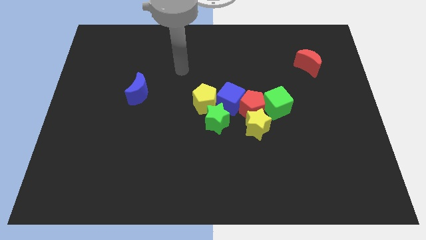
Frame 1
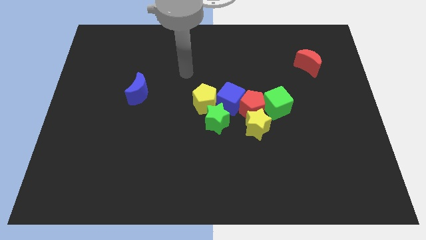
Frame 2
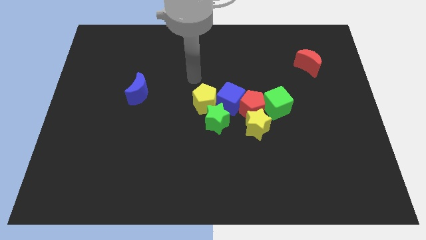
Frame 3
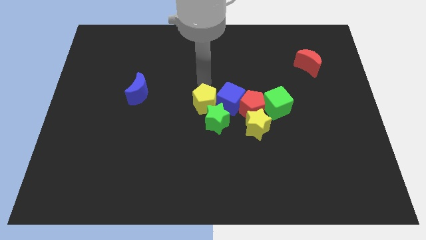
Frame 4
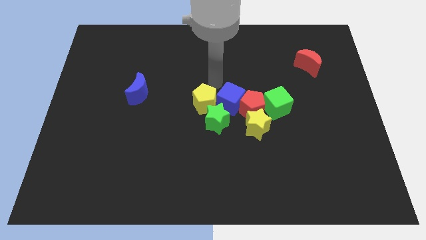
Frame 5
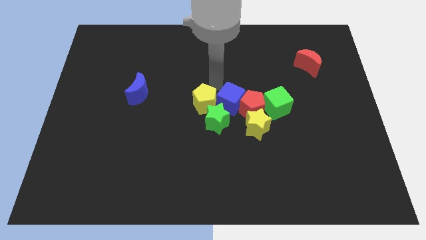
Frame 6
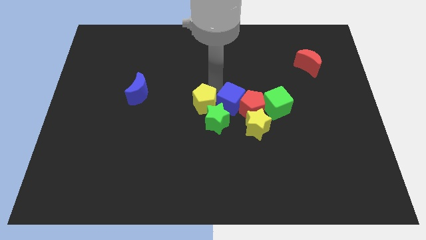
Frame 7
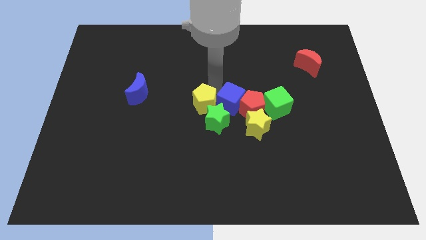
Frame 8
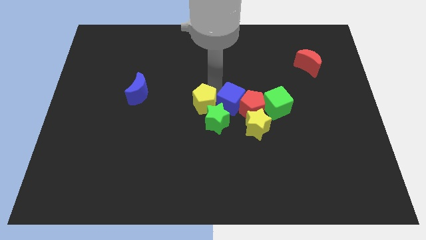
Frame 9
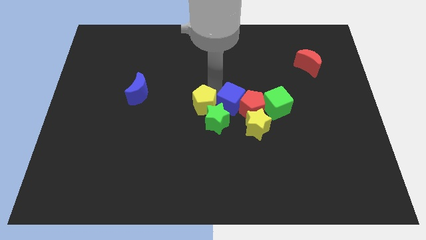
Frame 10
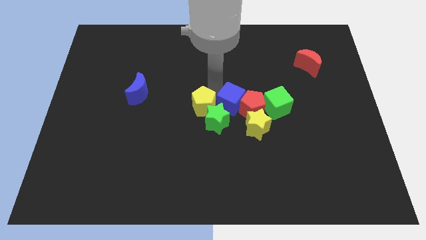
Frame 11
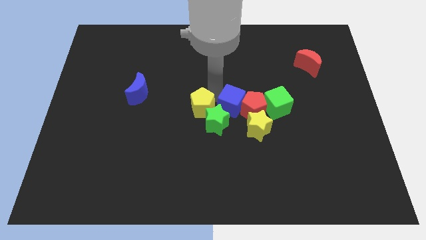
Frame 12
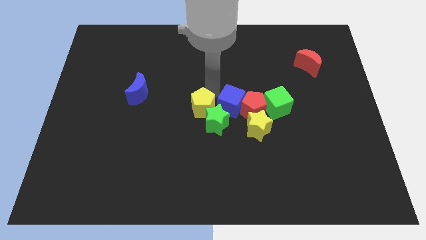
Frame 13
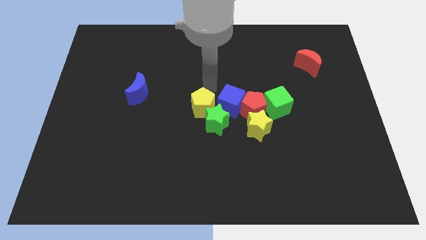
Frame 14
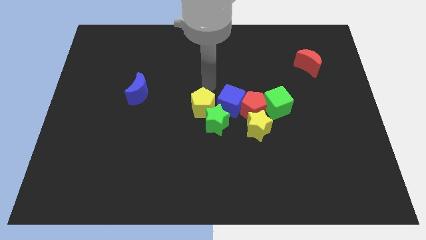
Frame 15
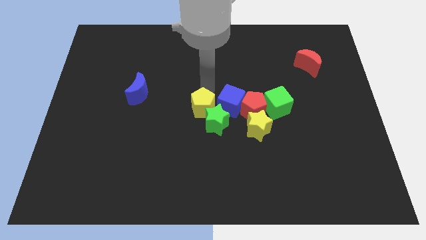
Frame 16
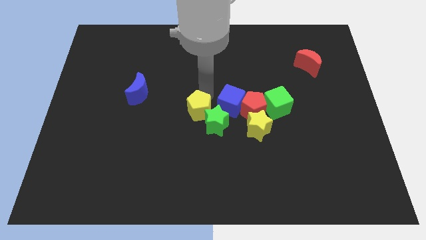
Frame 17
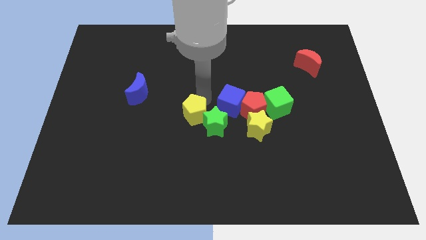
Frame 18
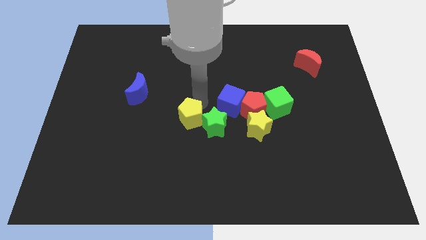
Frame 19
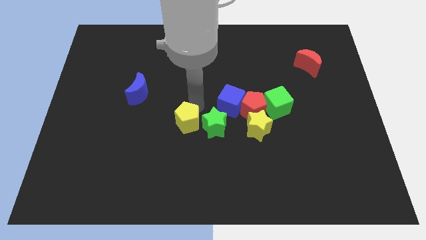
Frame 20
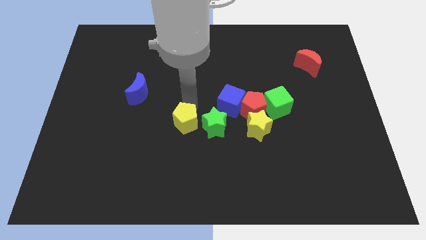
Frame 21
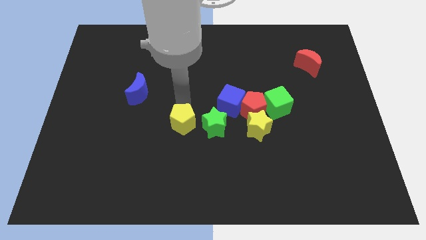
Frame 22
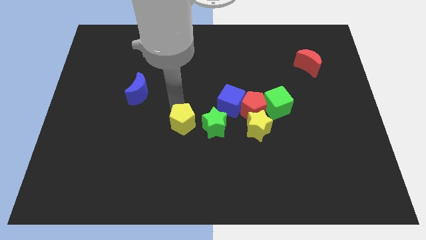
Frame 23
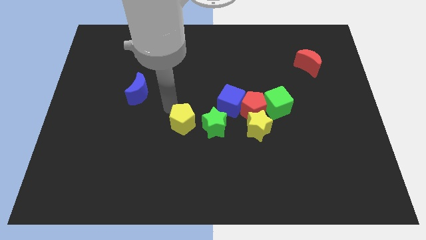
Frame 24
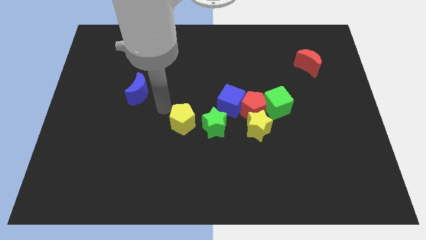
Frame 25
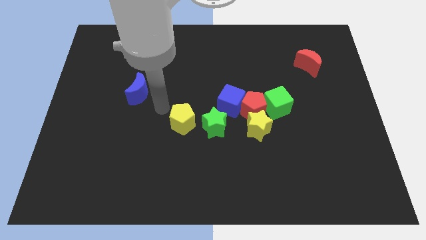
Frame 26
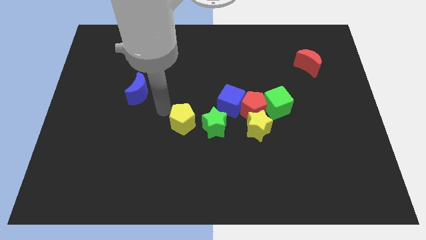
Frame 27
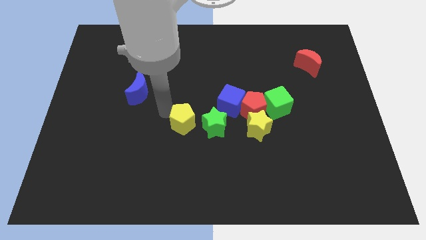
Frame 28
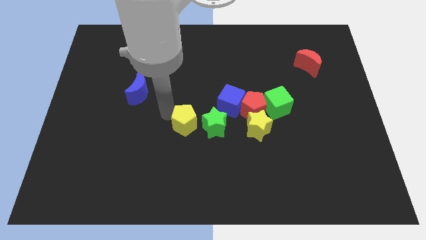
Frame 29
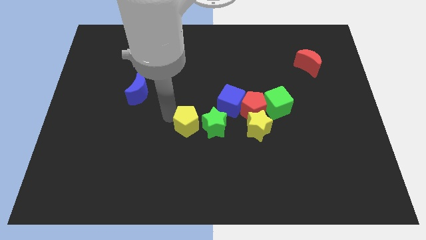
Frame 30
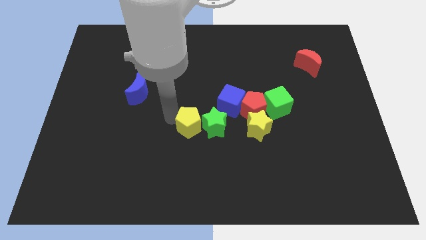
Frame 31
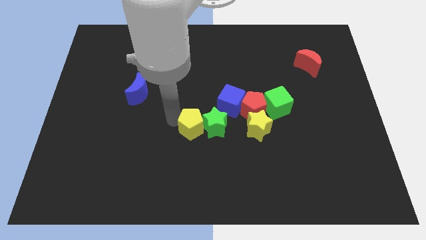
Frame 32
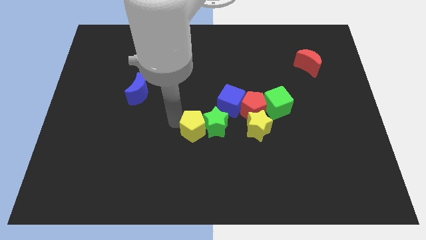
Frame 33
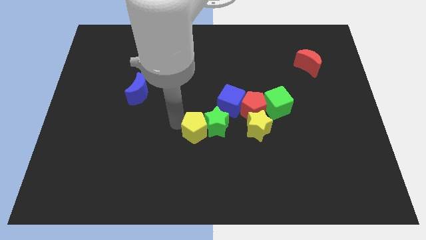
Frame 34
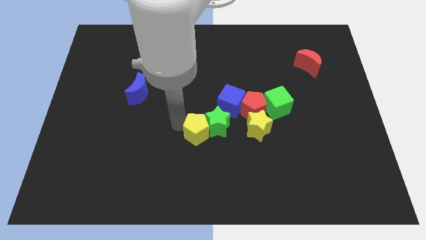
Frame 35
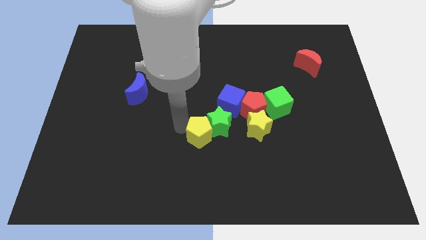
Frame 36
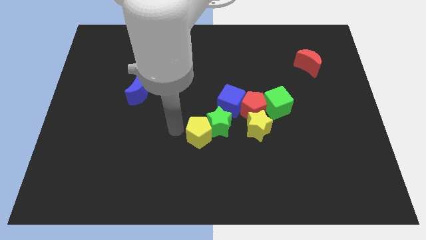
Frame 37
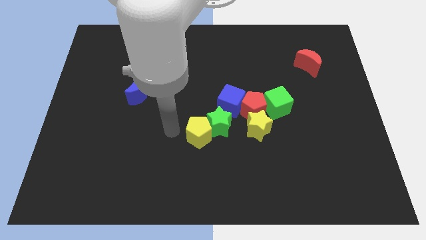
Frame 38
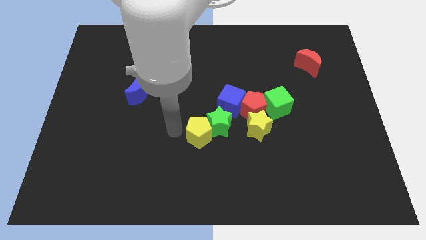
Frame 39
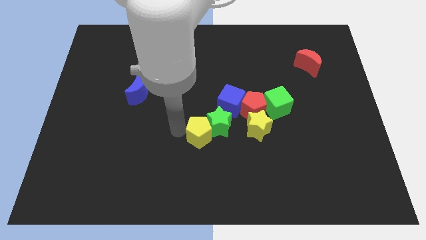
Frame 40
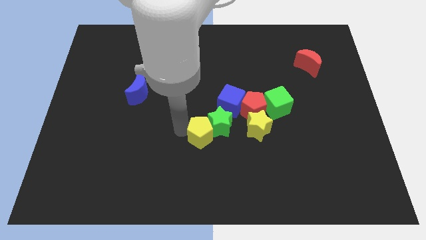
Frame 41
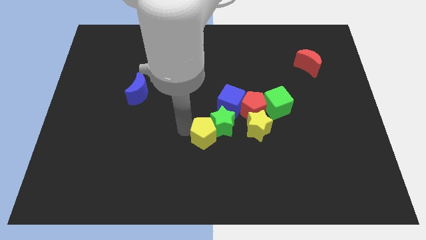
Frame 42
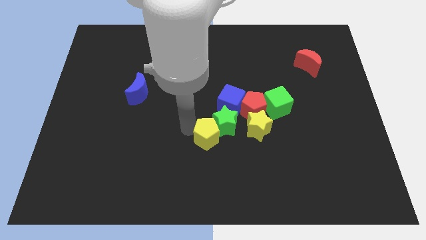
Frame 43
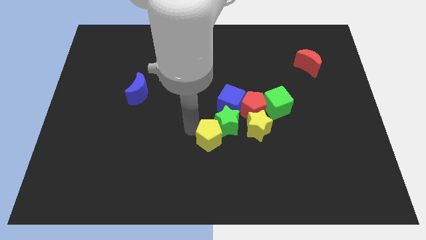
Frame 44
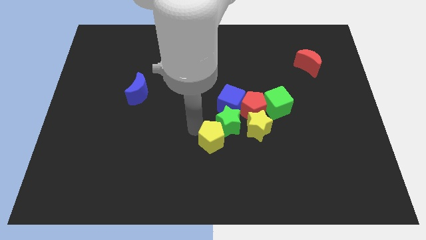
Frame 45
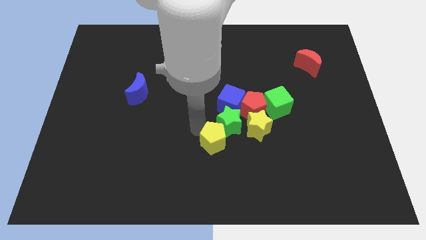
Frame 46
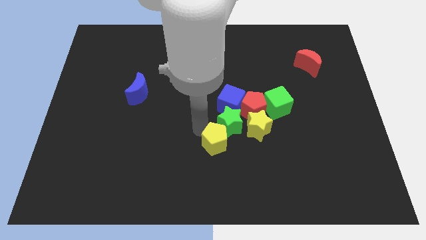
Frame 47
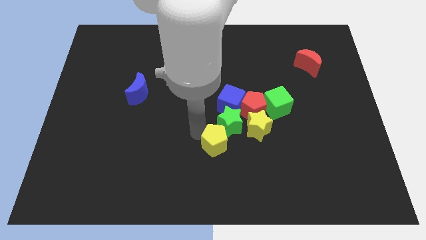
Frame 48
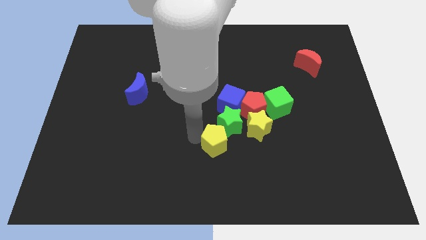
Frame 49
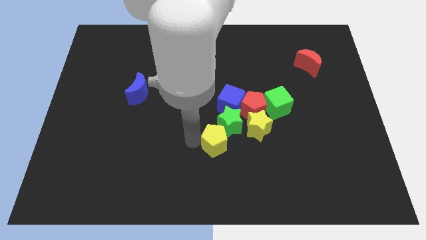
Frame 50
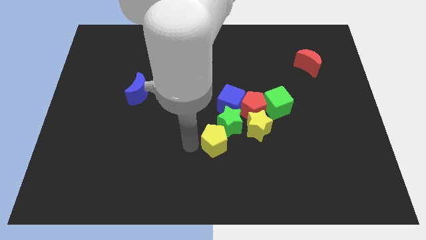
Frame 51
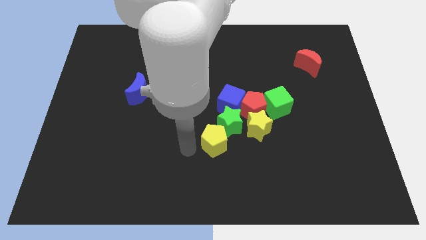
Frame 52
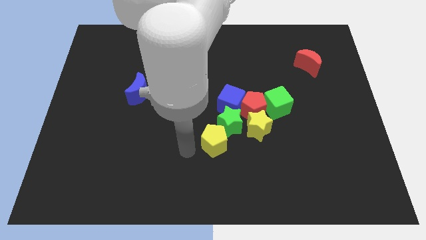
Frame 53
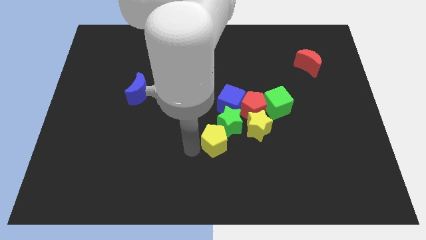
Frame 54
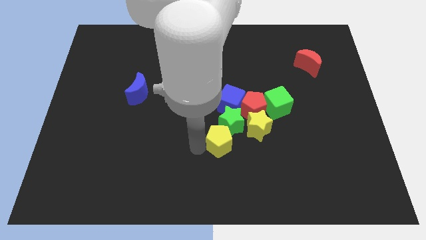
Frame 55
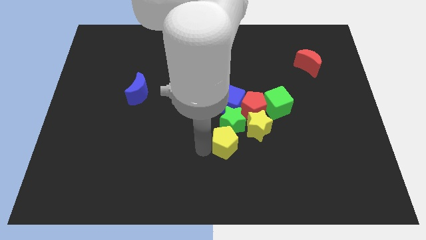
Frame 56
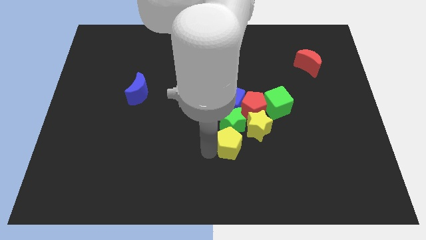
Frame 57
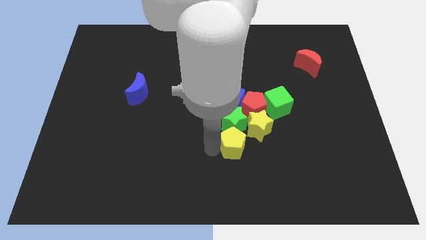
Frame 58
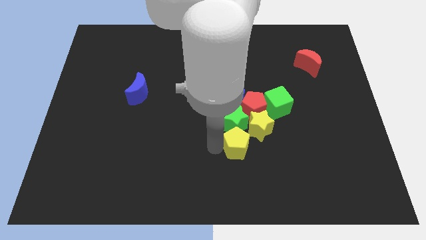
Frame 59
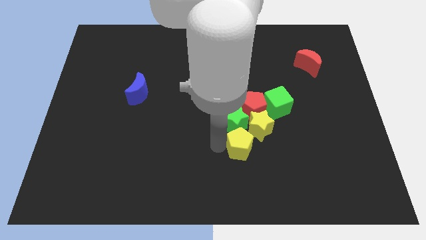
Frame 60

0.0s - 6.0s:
push the yellow pentagon towards the yellow star

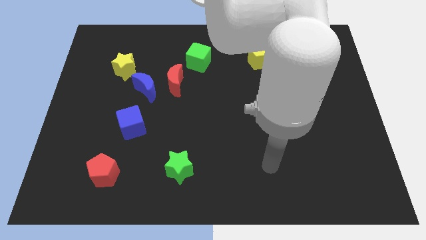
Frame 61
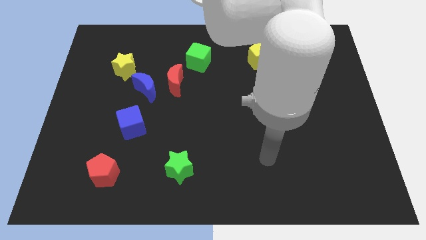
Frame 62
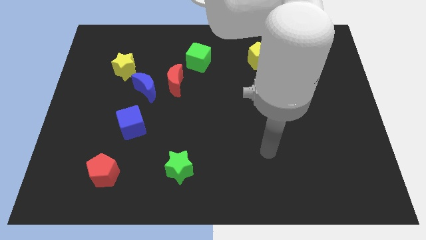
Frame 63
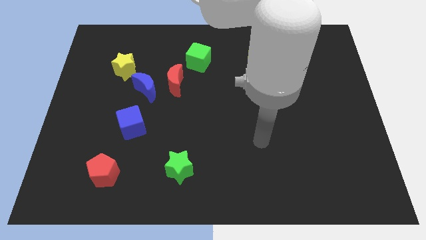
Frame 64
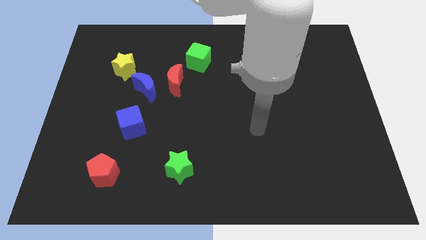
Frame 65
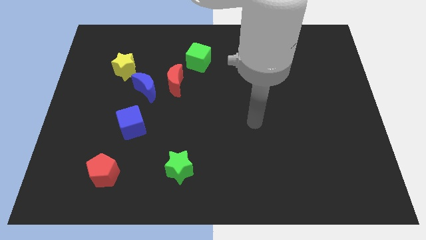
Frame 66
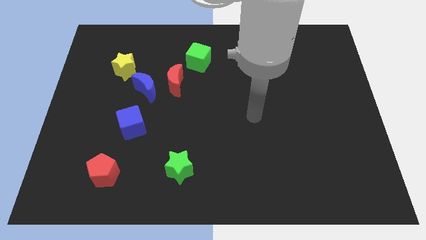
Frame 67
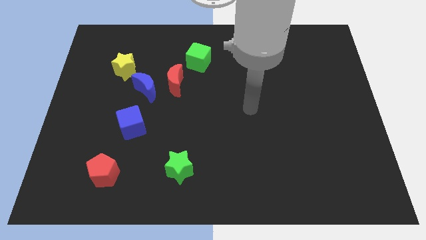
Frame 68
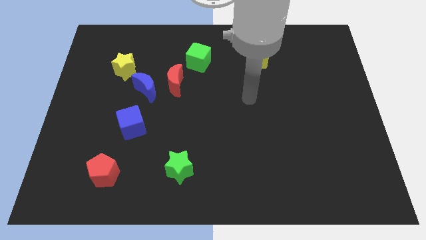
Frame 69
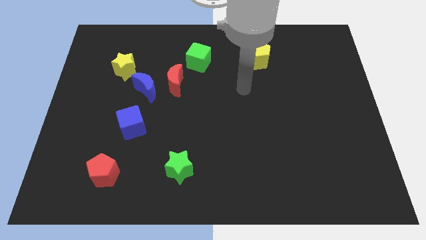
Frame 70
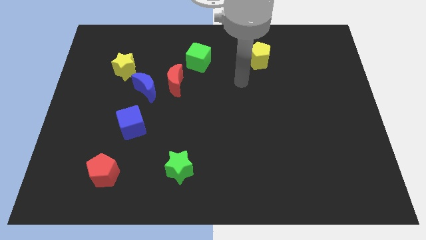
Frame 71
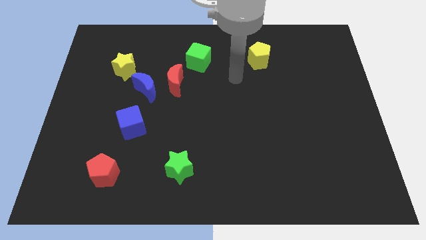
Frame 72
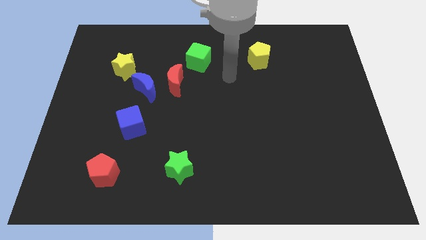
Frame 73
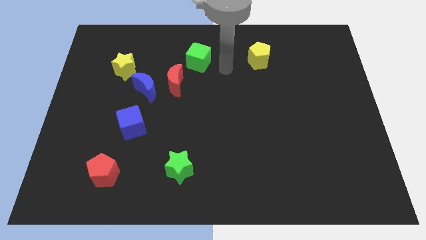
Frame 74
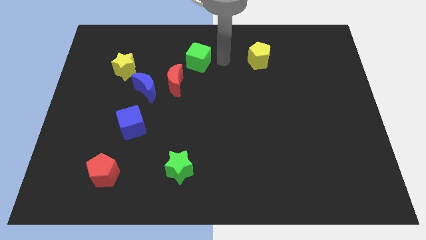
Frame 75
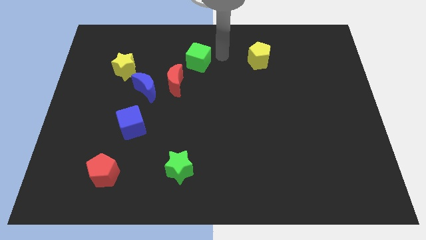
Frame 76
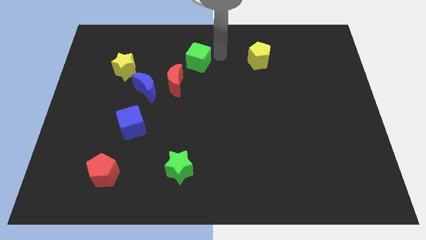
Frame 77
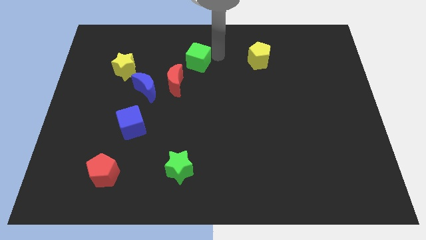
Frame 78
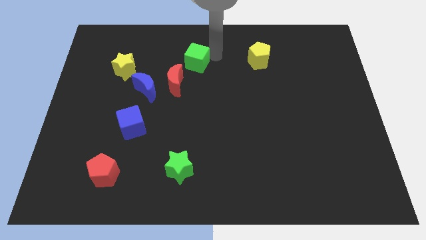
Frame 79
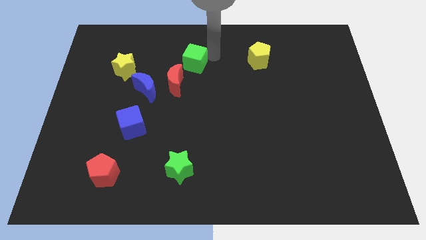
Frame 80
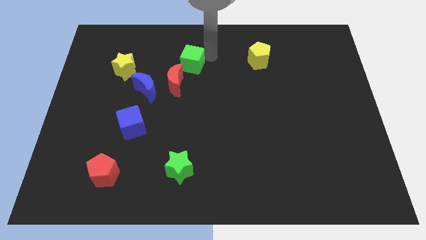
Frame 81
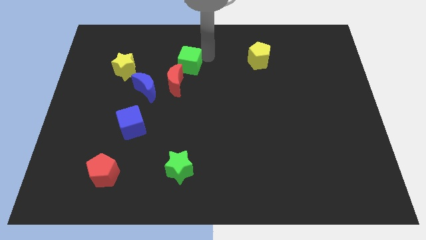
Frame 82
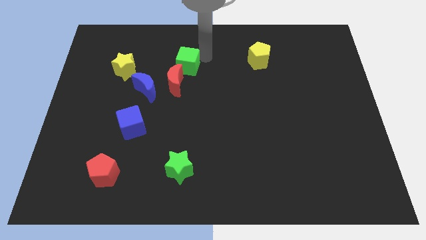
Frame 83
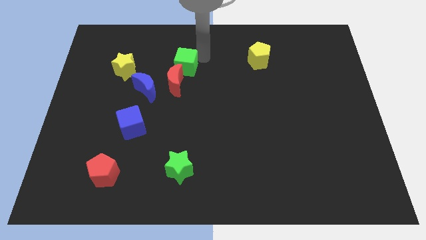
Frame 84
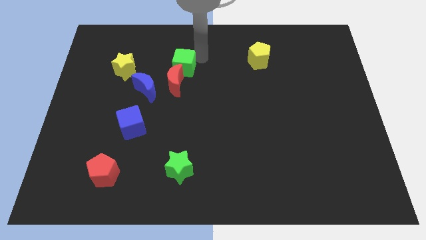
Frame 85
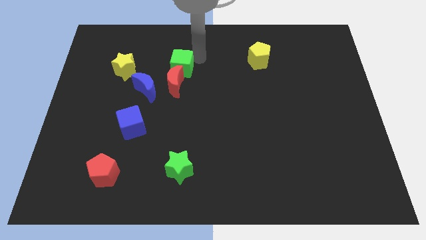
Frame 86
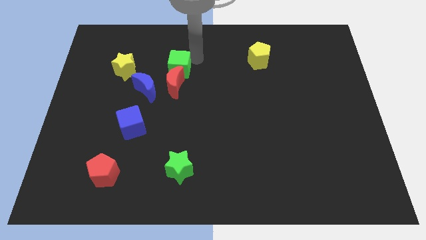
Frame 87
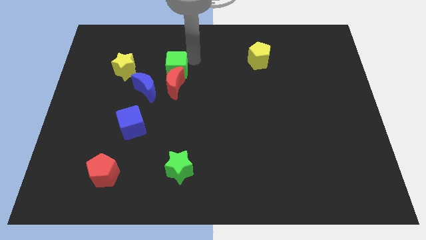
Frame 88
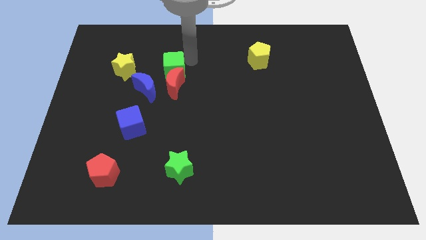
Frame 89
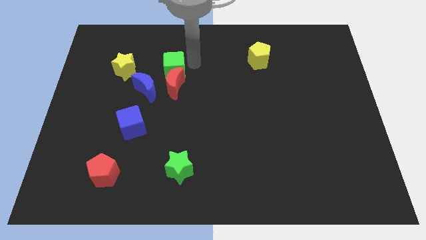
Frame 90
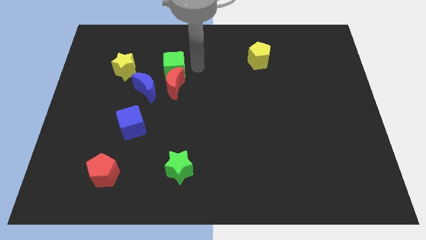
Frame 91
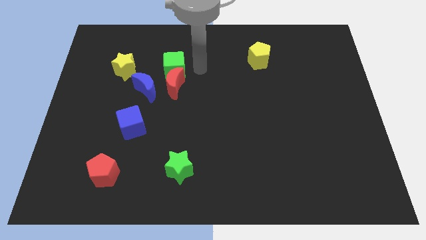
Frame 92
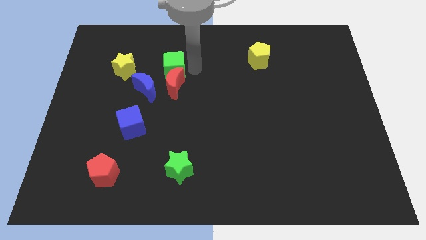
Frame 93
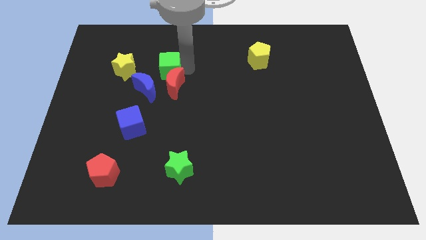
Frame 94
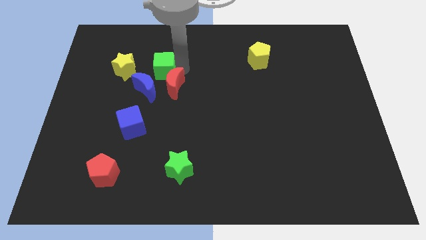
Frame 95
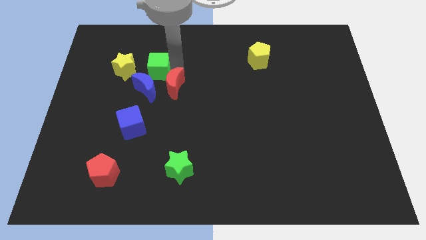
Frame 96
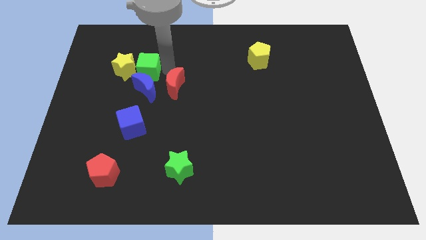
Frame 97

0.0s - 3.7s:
slide the green cube close to the yellow star
